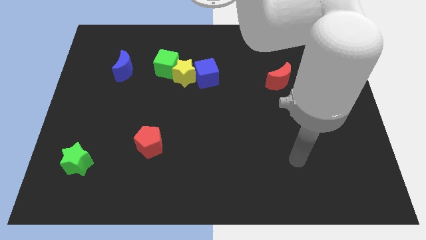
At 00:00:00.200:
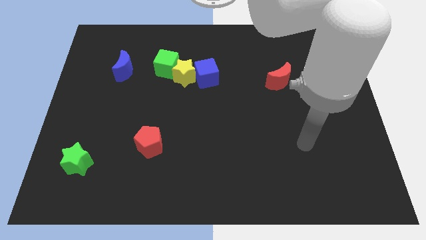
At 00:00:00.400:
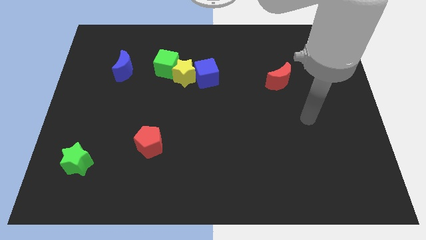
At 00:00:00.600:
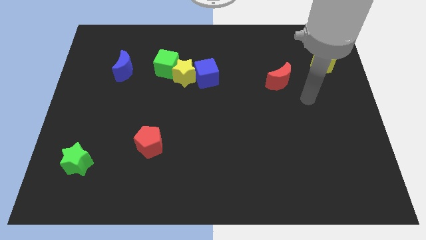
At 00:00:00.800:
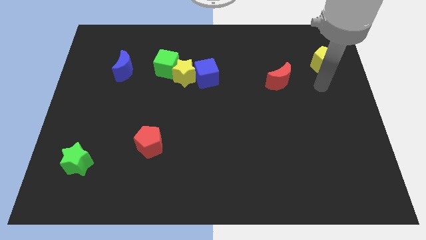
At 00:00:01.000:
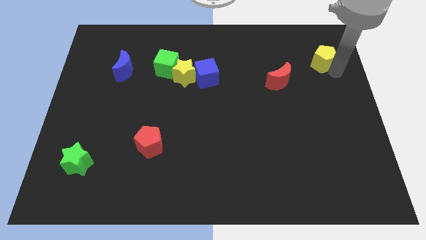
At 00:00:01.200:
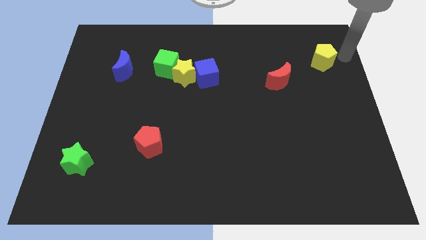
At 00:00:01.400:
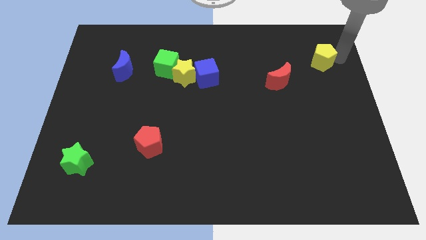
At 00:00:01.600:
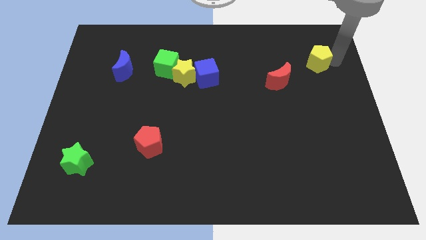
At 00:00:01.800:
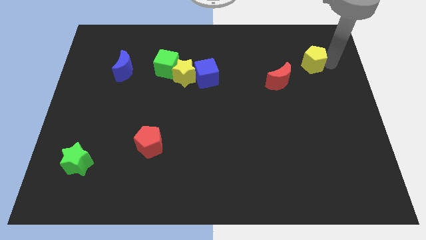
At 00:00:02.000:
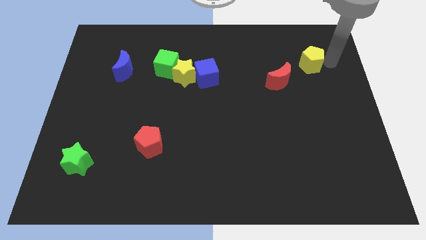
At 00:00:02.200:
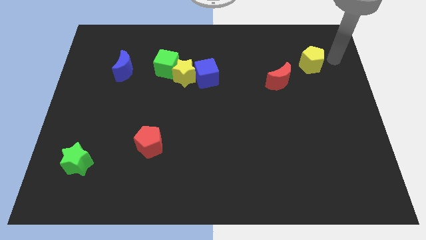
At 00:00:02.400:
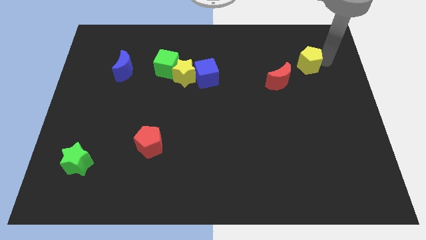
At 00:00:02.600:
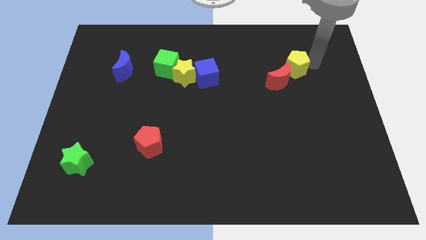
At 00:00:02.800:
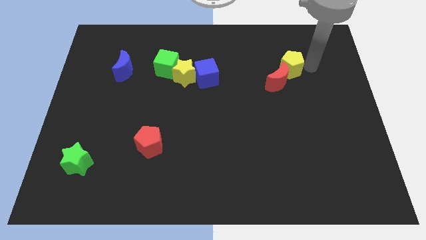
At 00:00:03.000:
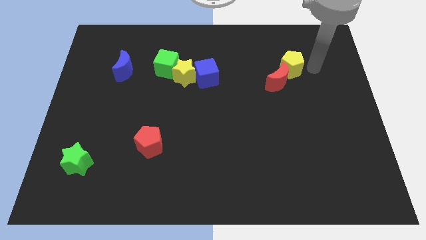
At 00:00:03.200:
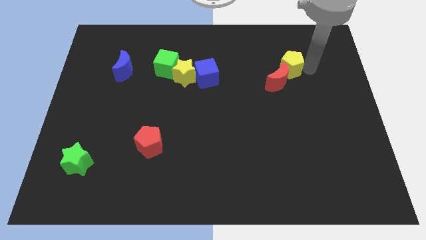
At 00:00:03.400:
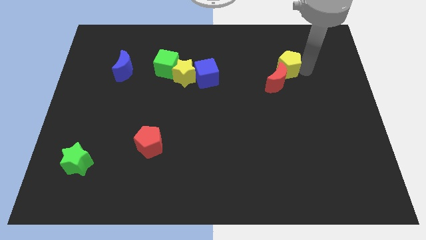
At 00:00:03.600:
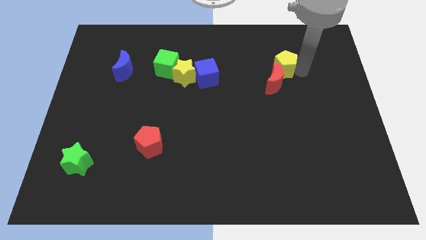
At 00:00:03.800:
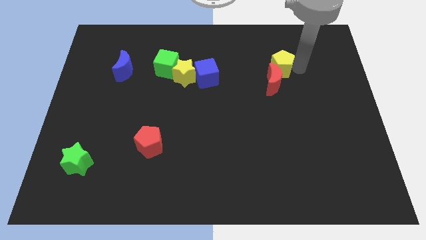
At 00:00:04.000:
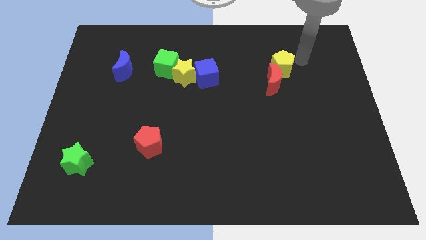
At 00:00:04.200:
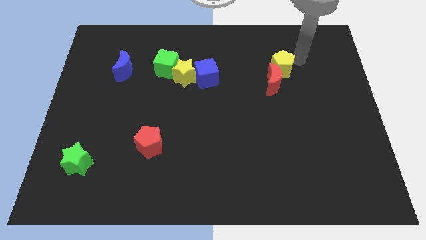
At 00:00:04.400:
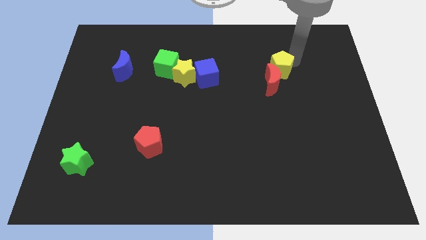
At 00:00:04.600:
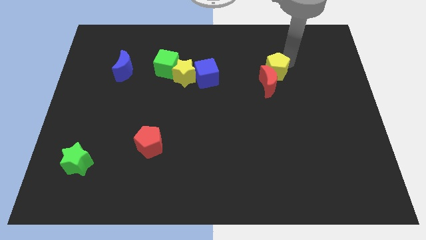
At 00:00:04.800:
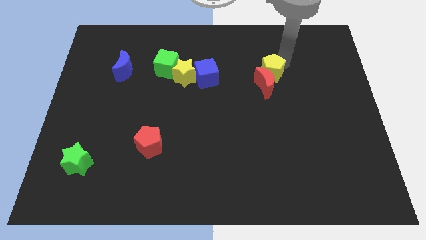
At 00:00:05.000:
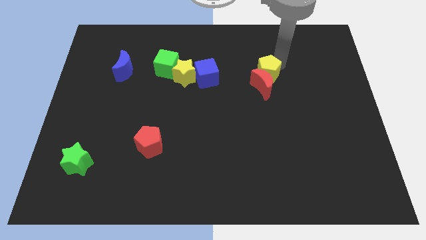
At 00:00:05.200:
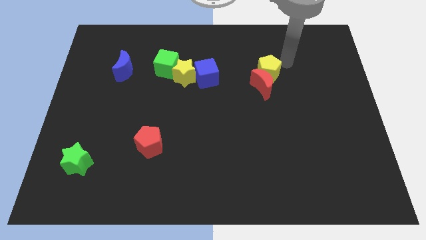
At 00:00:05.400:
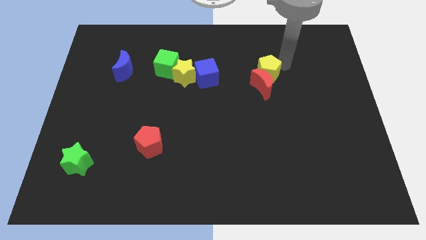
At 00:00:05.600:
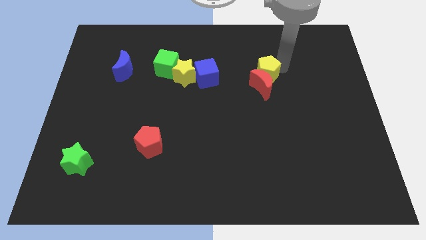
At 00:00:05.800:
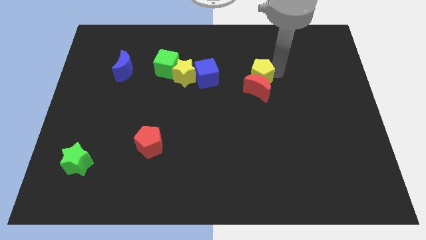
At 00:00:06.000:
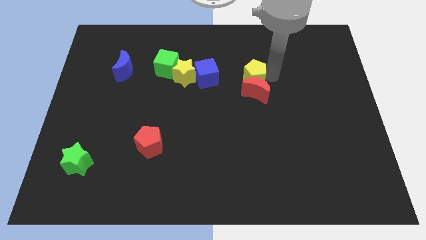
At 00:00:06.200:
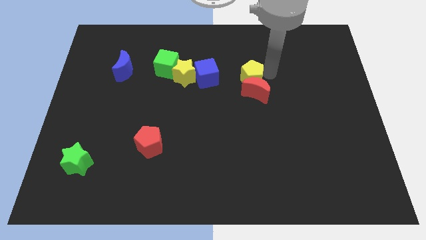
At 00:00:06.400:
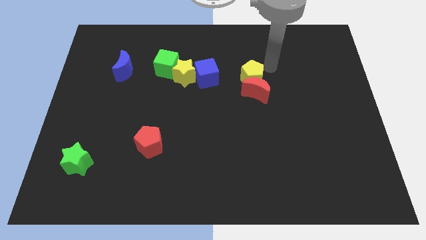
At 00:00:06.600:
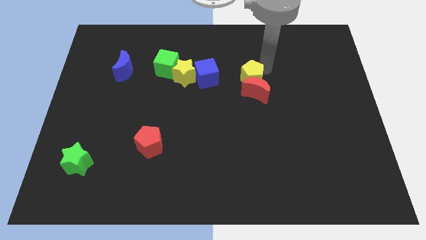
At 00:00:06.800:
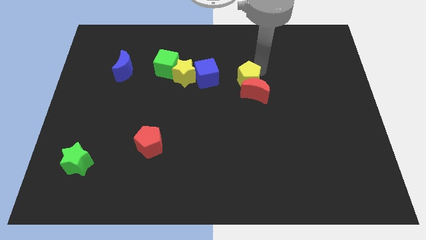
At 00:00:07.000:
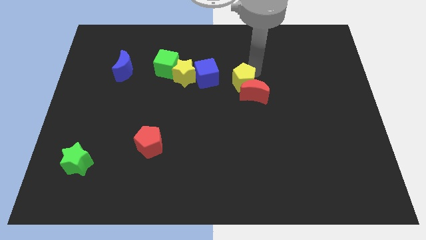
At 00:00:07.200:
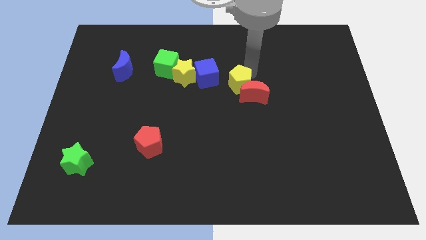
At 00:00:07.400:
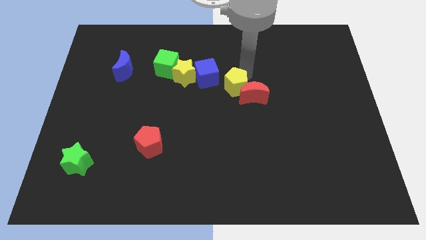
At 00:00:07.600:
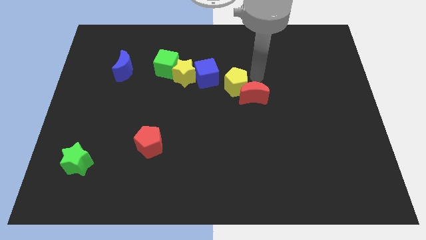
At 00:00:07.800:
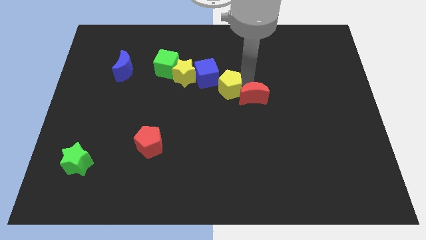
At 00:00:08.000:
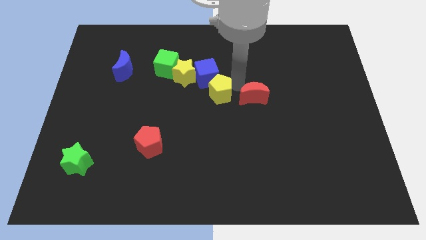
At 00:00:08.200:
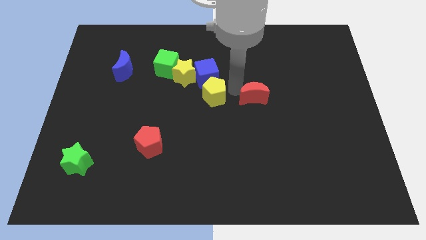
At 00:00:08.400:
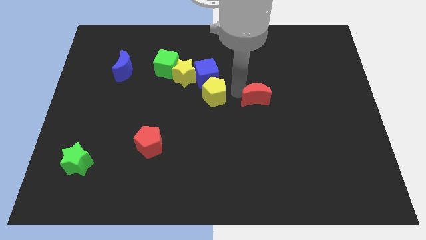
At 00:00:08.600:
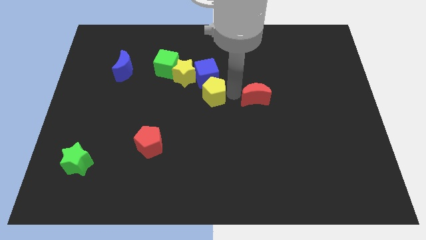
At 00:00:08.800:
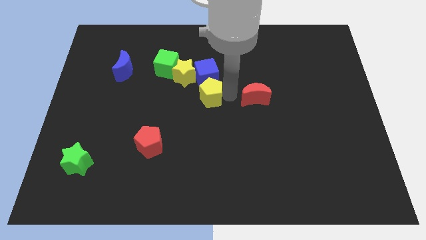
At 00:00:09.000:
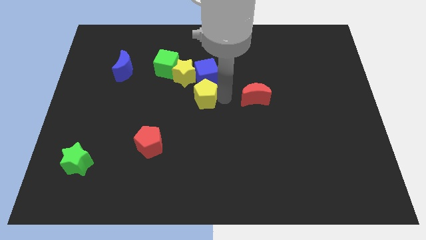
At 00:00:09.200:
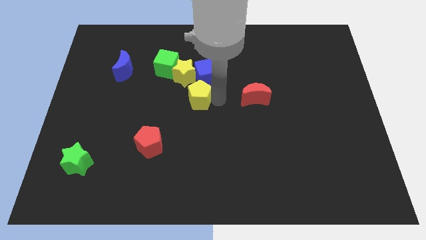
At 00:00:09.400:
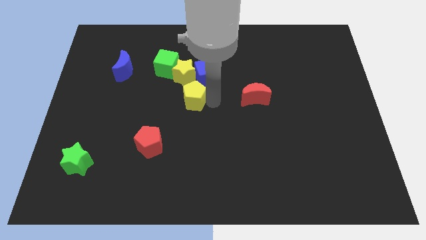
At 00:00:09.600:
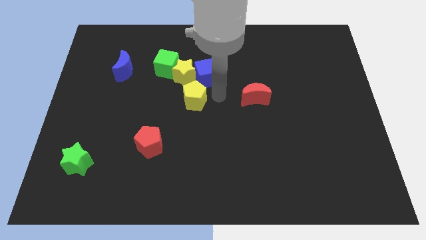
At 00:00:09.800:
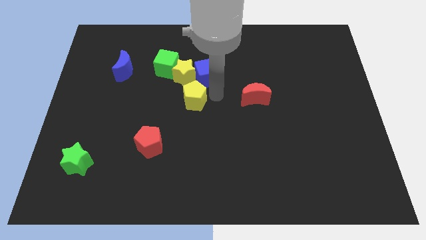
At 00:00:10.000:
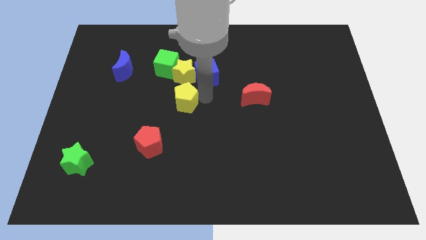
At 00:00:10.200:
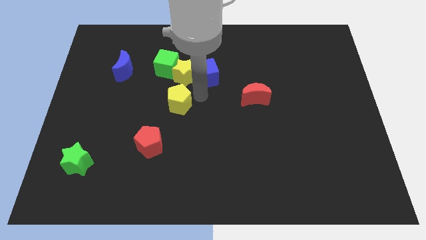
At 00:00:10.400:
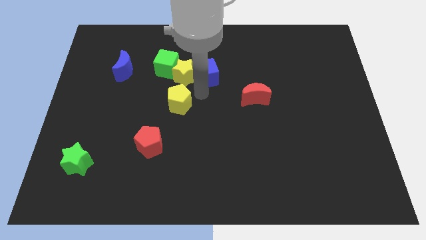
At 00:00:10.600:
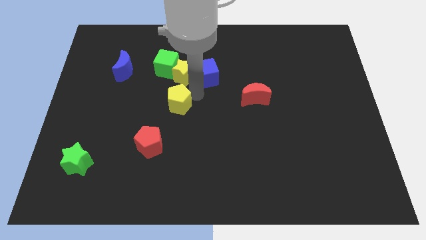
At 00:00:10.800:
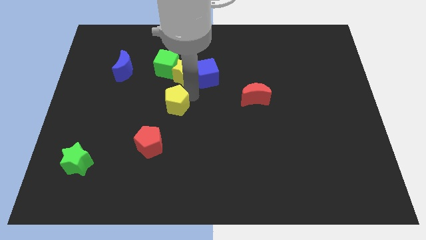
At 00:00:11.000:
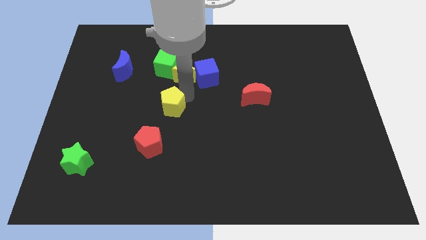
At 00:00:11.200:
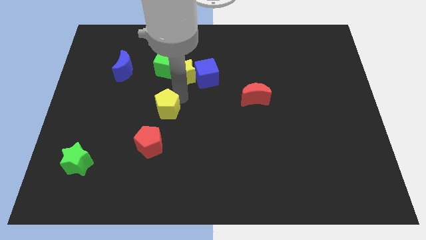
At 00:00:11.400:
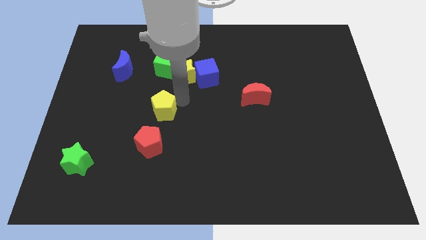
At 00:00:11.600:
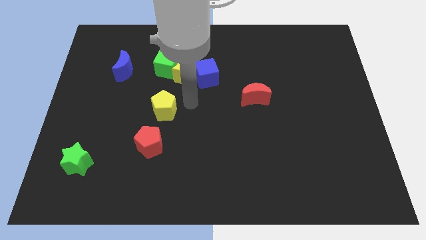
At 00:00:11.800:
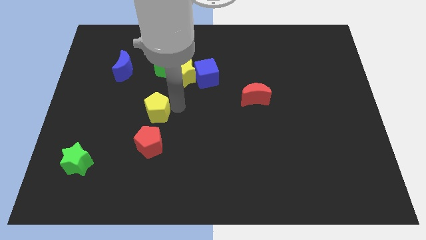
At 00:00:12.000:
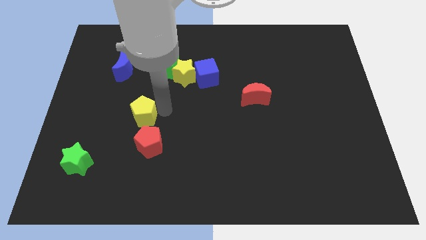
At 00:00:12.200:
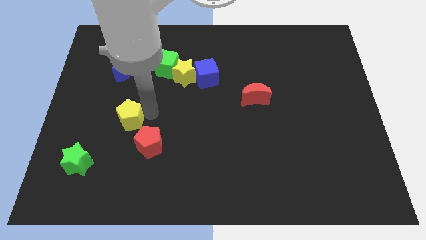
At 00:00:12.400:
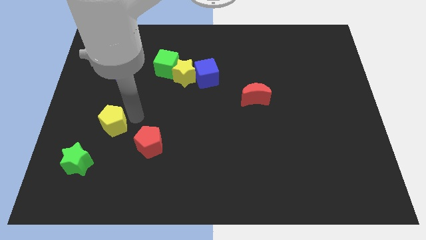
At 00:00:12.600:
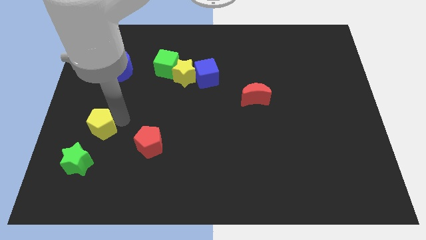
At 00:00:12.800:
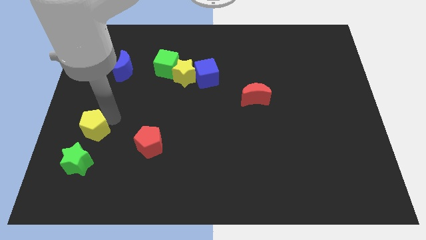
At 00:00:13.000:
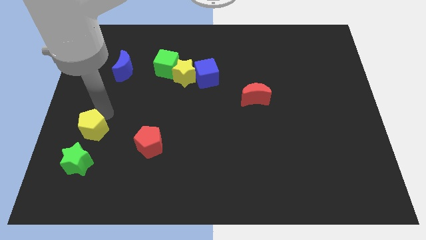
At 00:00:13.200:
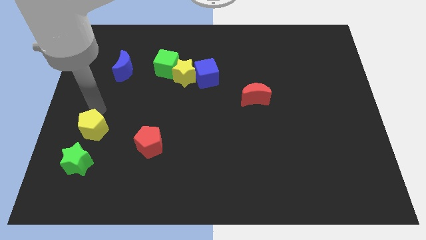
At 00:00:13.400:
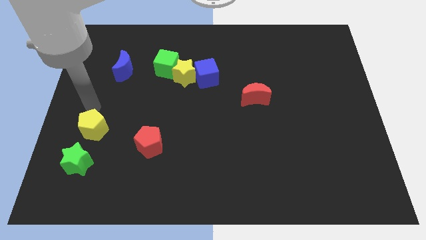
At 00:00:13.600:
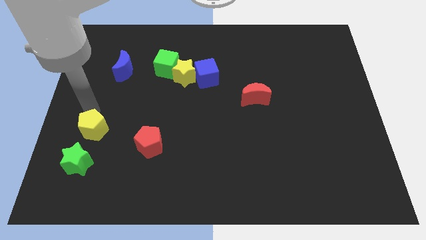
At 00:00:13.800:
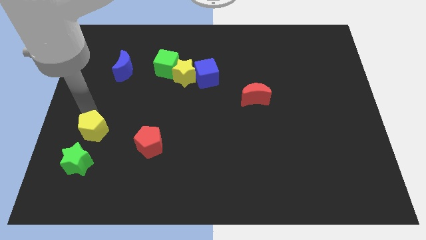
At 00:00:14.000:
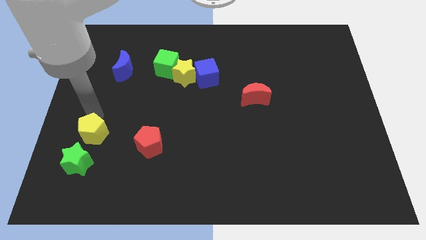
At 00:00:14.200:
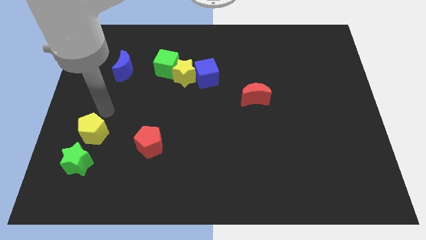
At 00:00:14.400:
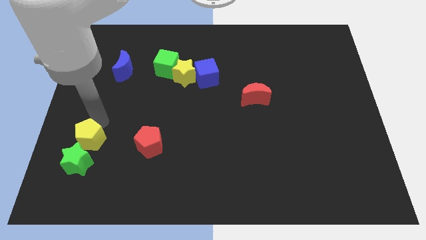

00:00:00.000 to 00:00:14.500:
slide the yellow pentagon to the green star
